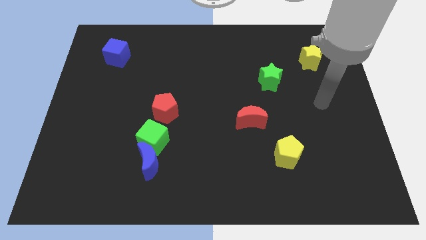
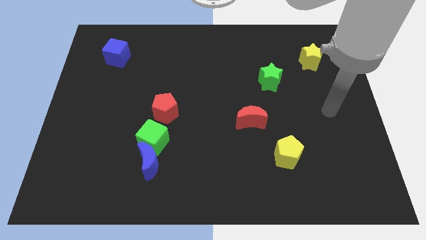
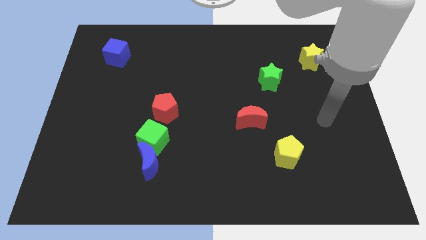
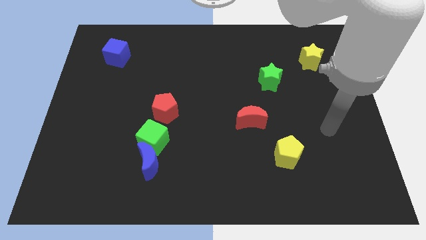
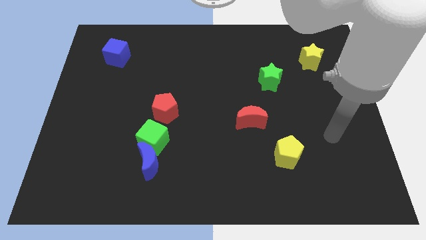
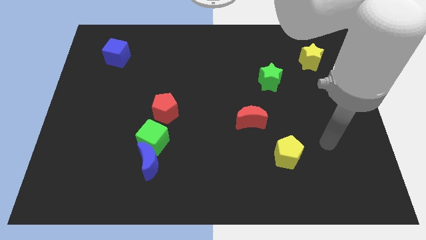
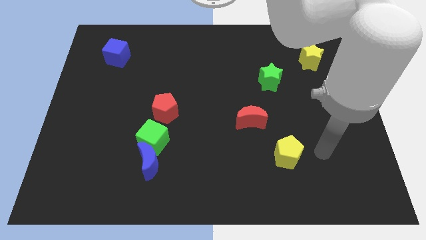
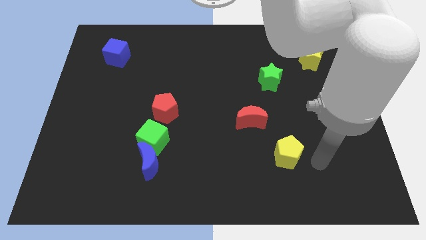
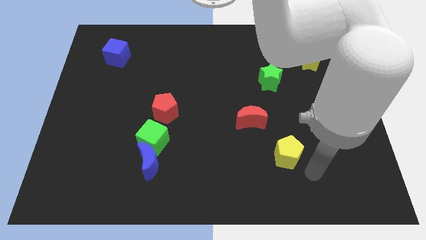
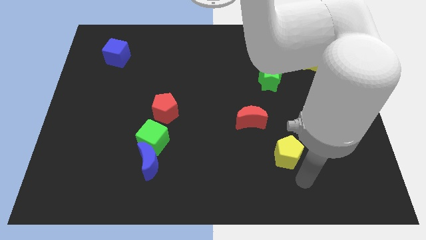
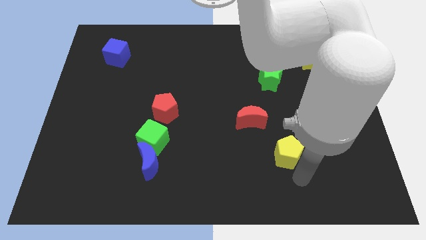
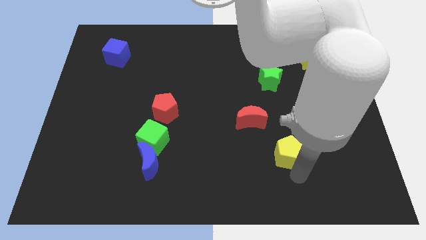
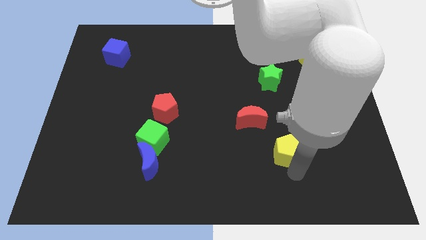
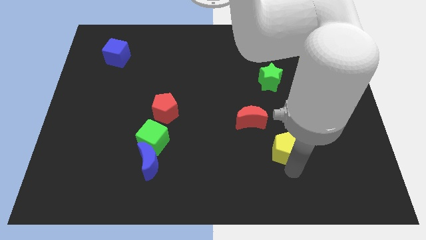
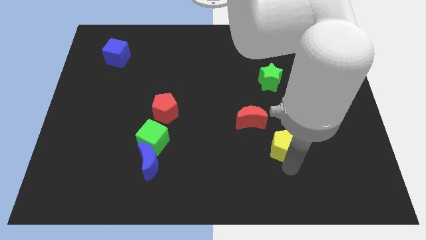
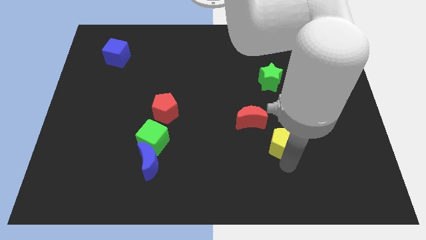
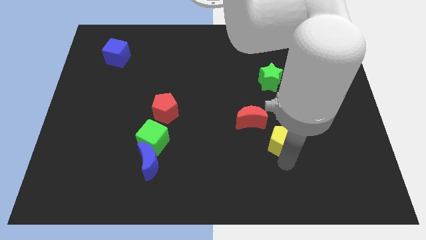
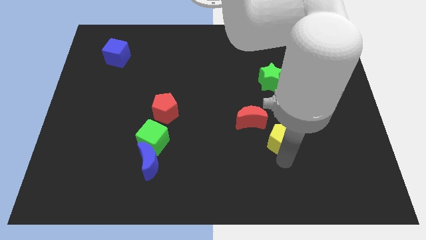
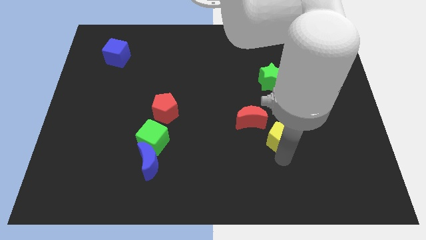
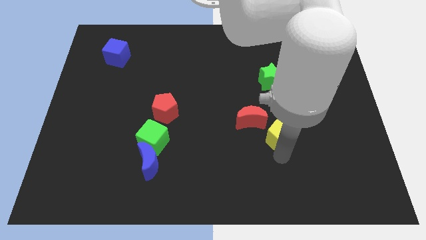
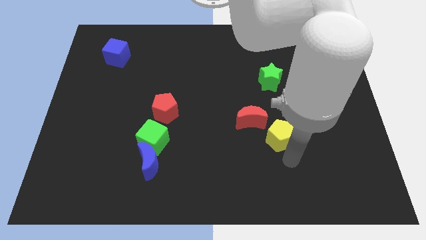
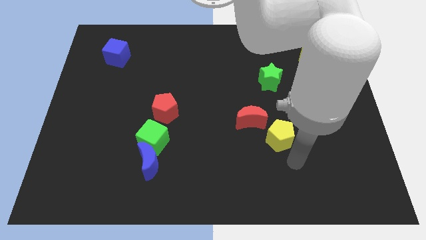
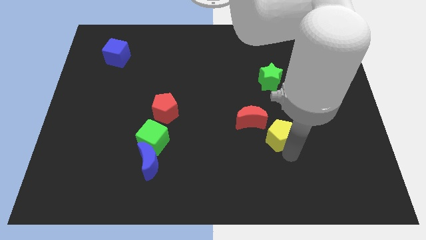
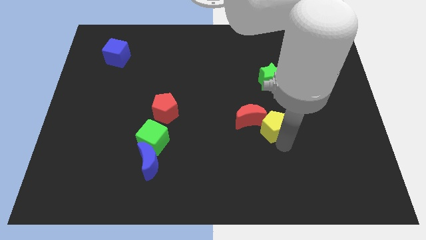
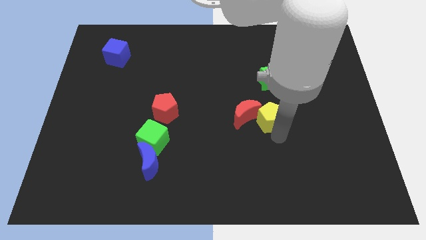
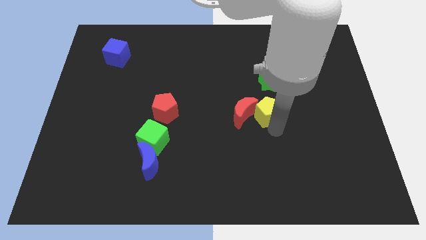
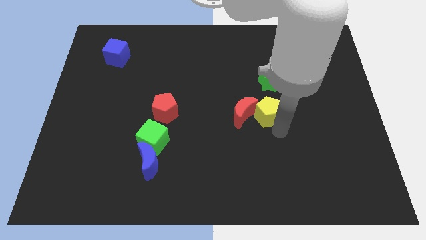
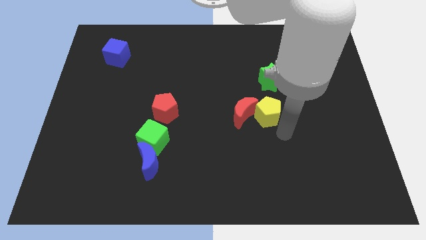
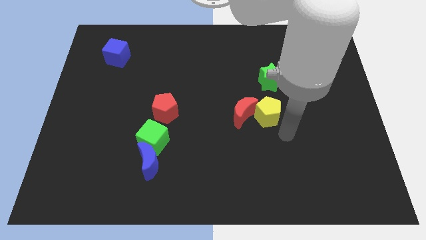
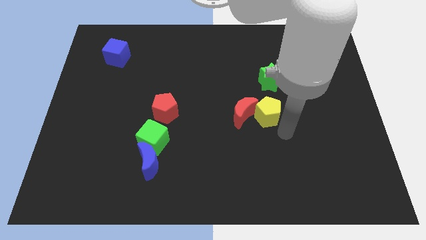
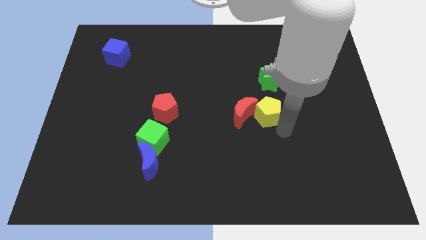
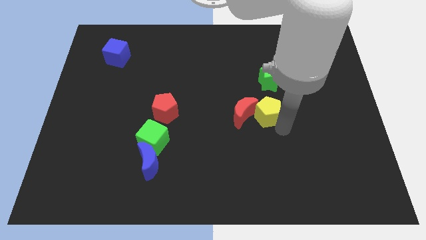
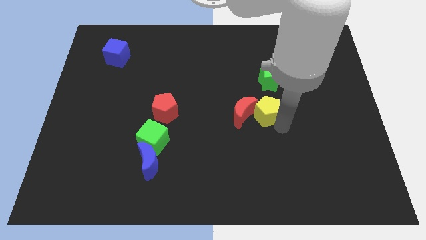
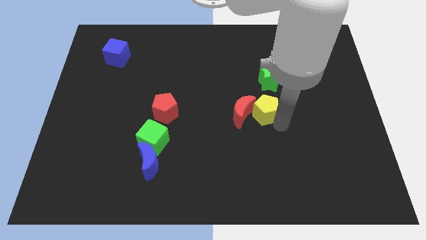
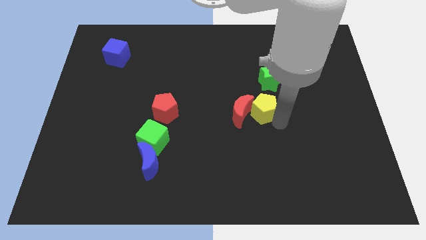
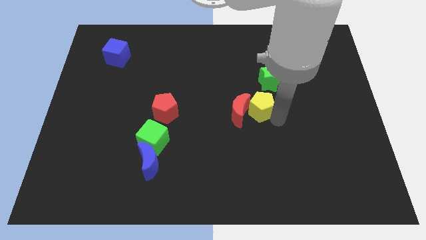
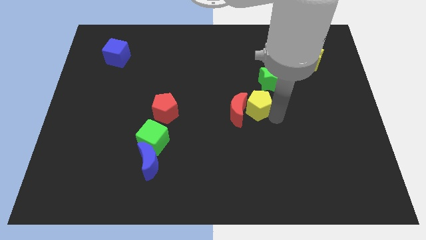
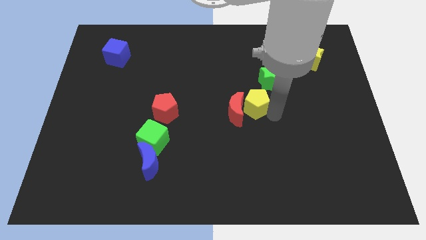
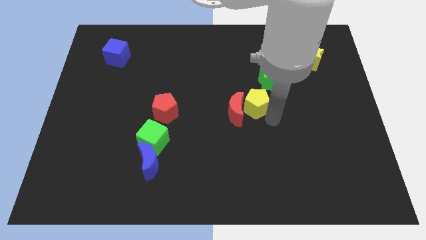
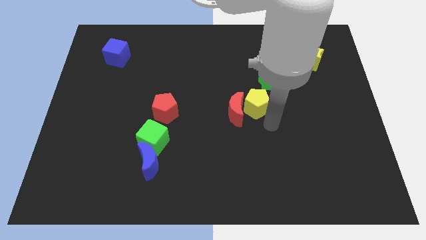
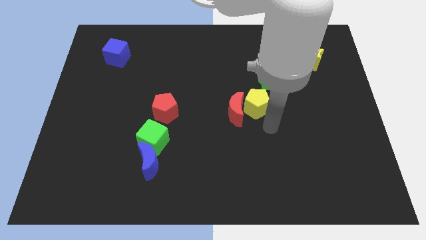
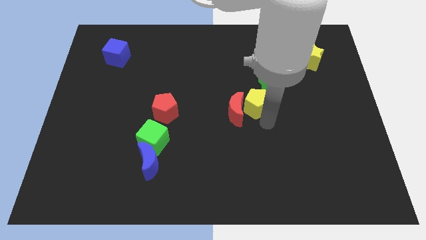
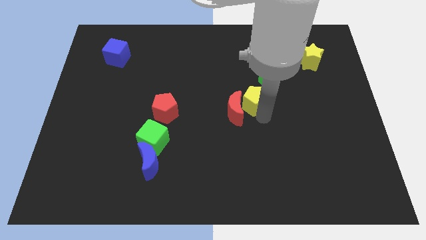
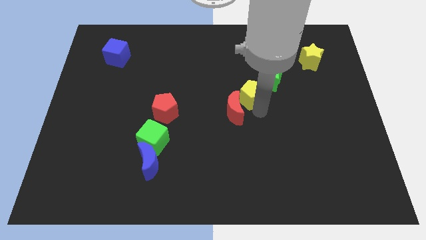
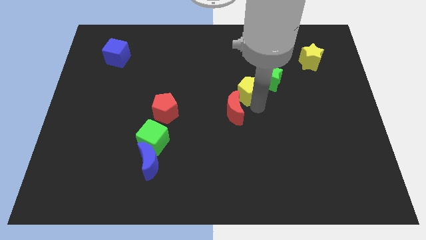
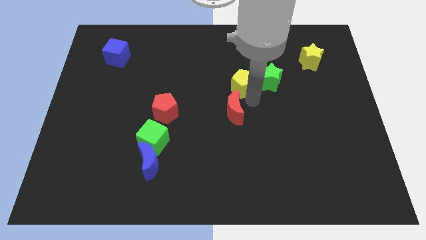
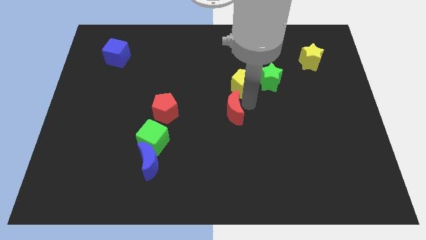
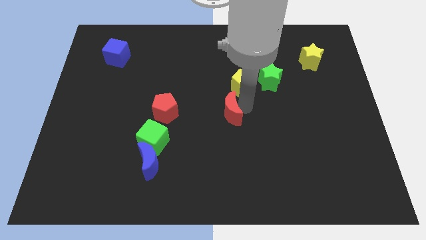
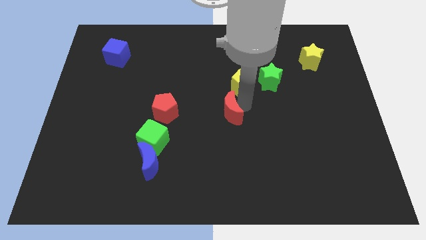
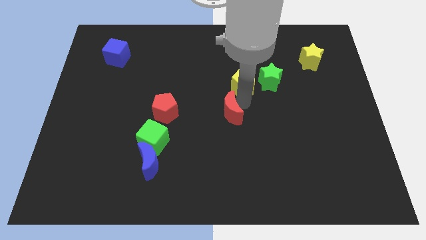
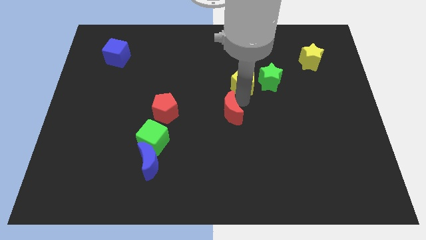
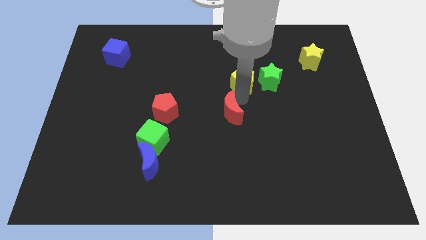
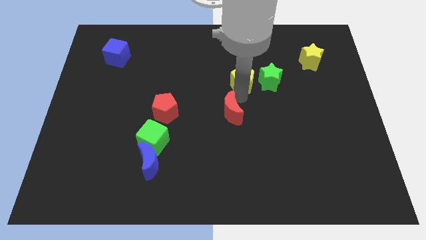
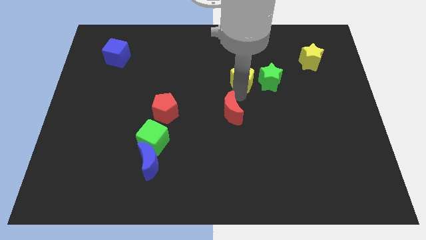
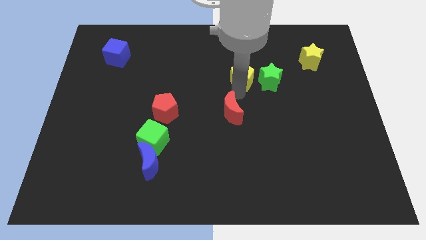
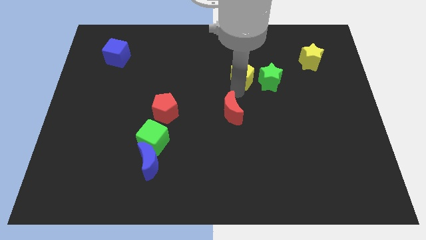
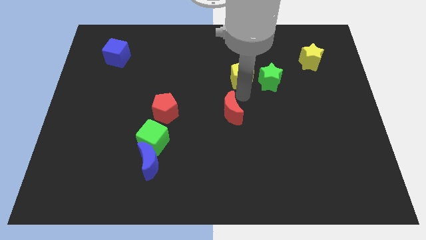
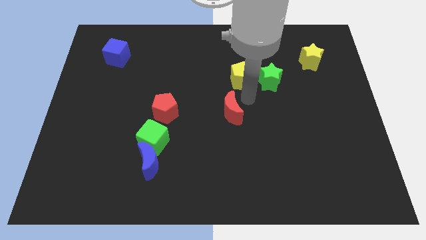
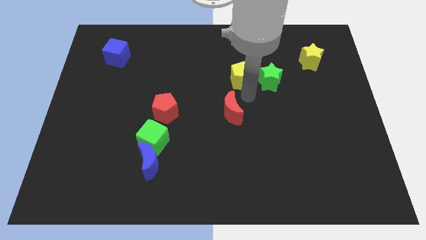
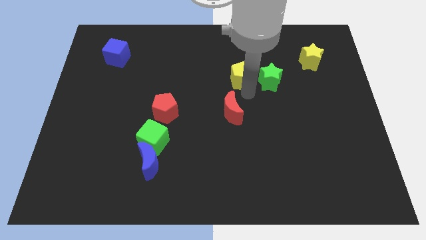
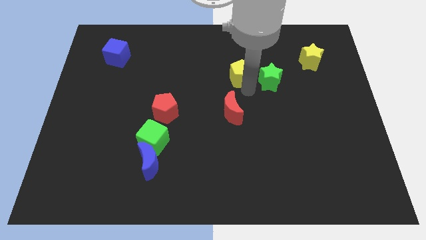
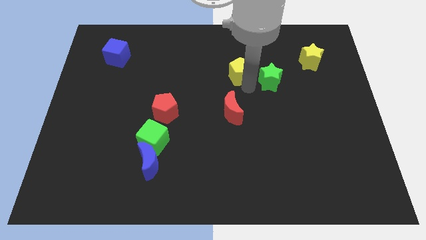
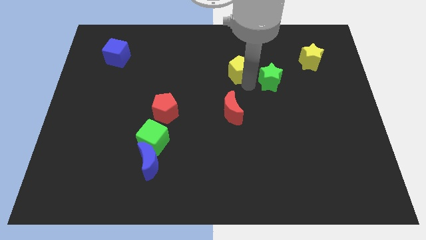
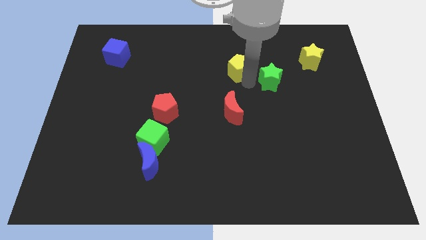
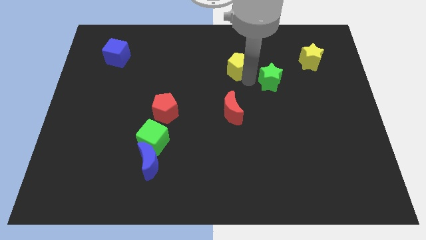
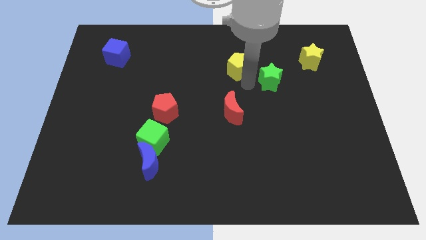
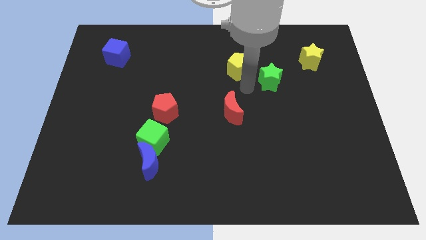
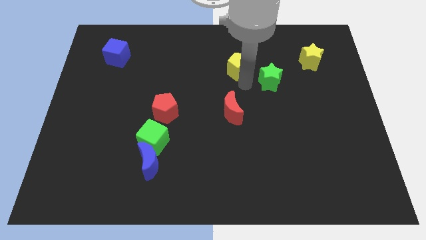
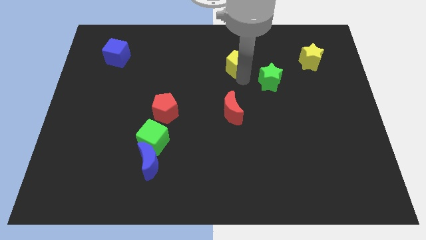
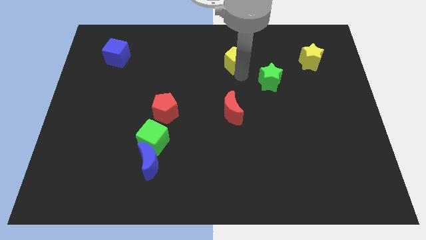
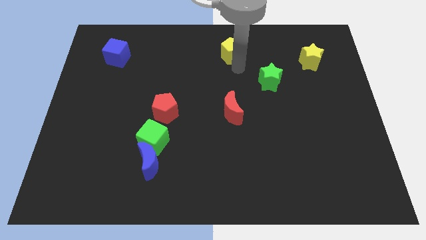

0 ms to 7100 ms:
slide the yellow pentagon to the top side
